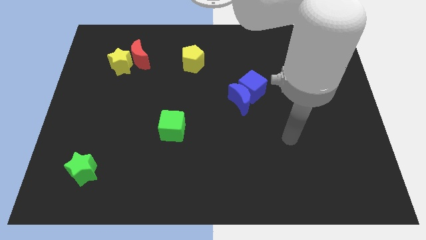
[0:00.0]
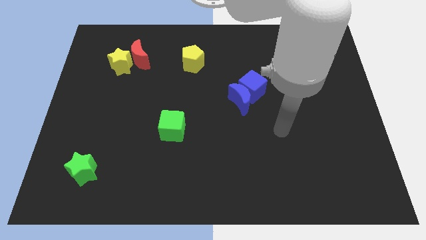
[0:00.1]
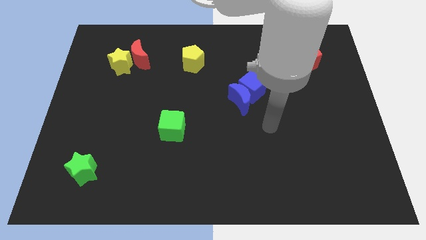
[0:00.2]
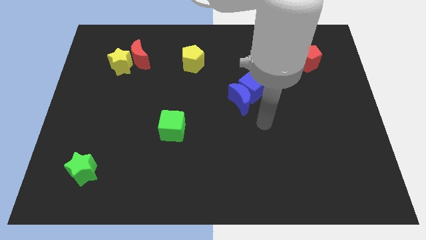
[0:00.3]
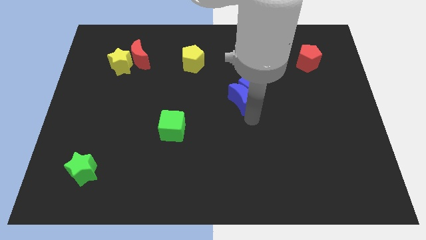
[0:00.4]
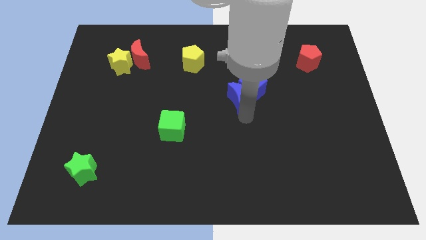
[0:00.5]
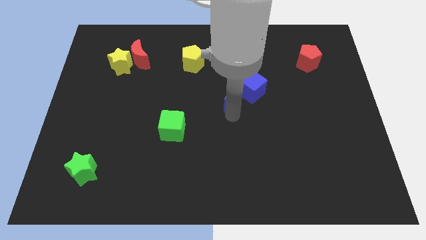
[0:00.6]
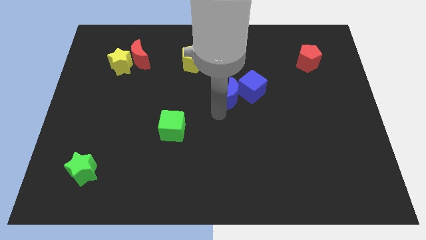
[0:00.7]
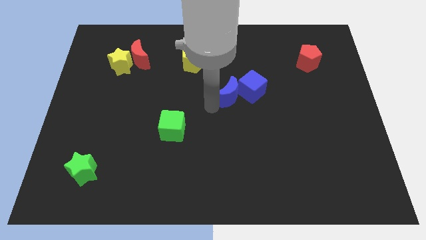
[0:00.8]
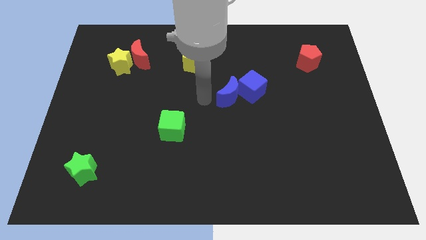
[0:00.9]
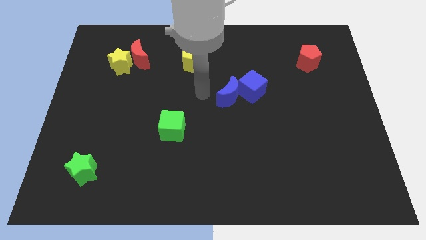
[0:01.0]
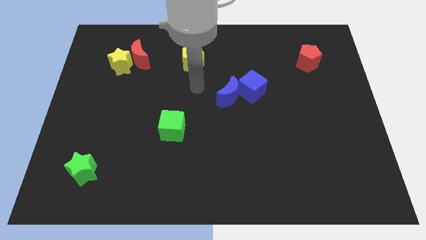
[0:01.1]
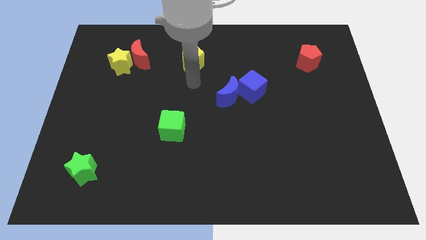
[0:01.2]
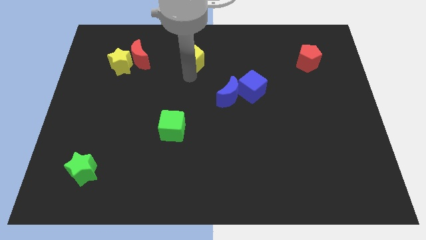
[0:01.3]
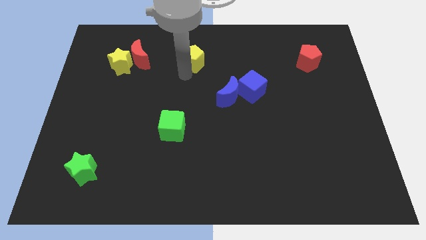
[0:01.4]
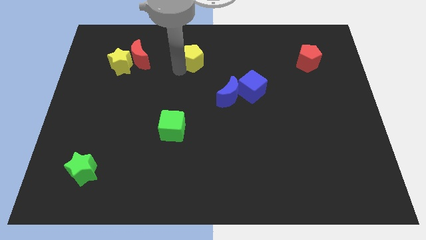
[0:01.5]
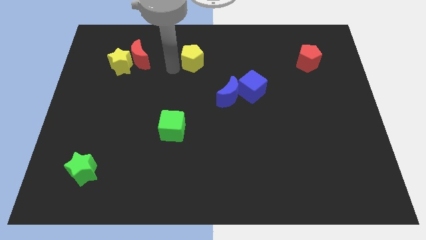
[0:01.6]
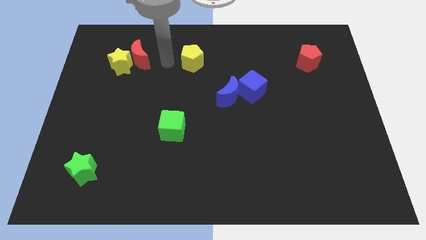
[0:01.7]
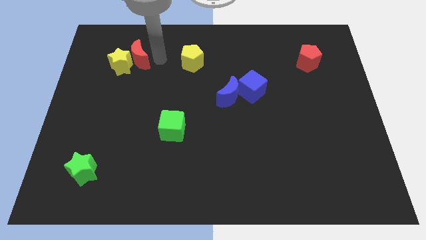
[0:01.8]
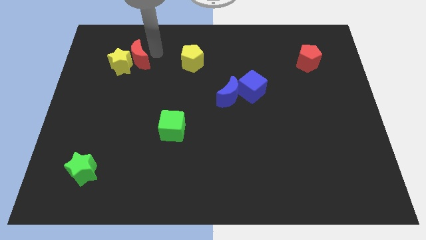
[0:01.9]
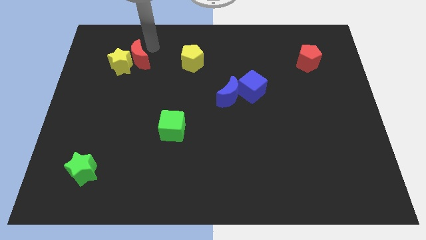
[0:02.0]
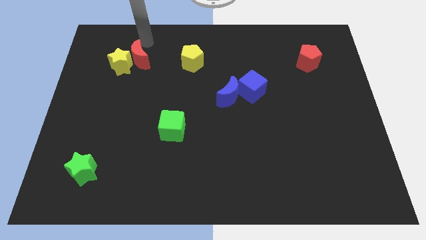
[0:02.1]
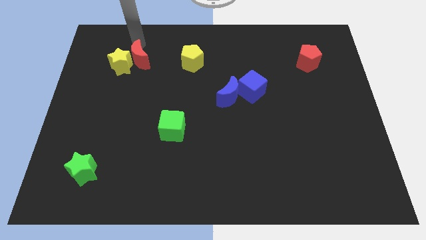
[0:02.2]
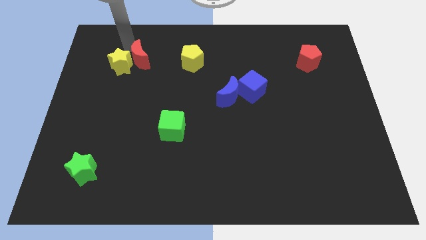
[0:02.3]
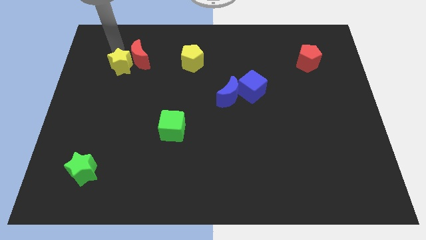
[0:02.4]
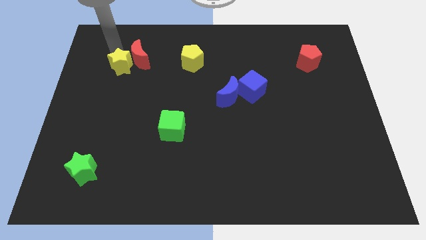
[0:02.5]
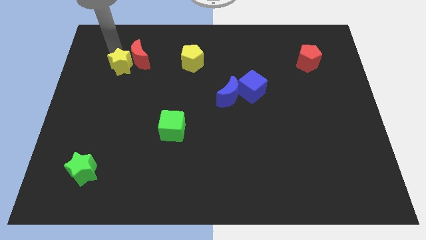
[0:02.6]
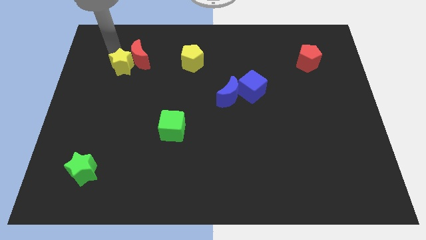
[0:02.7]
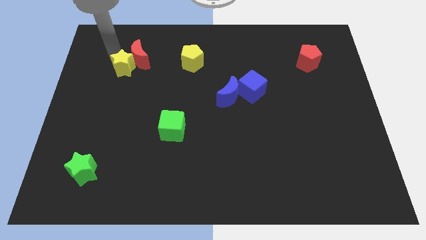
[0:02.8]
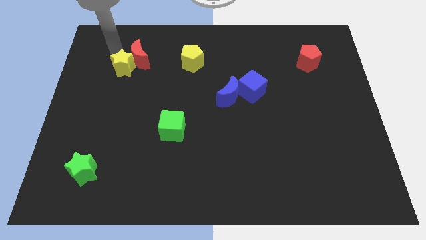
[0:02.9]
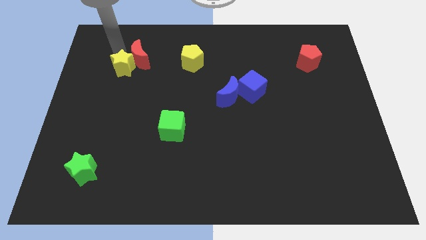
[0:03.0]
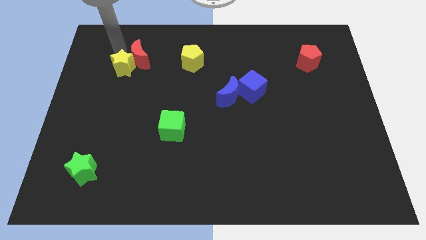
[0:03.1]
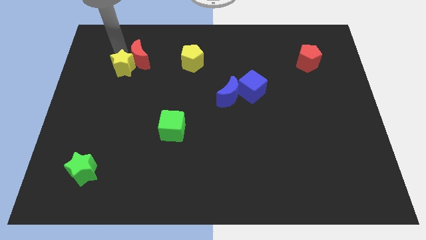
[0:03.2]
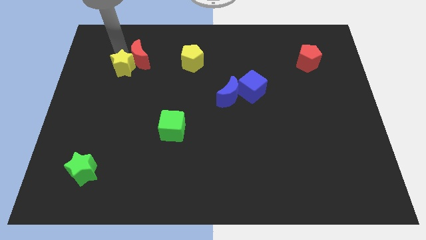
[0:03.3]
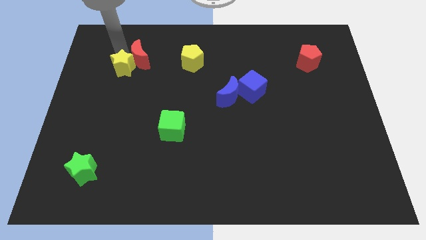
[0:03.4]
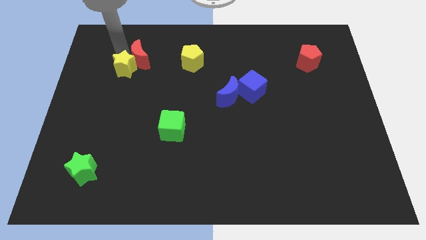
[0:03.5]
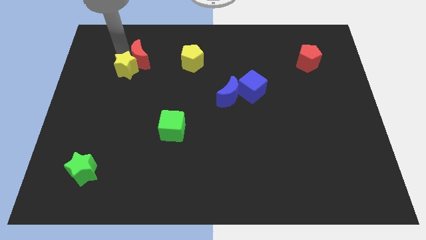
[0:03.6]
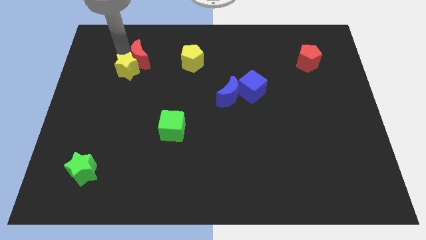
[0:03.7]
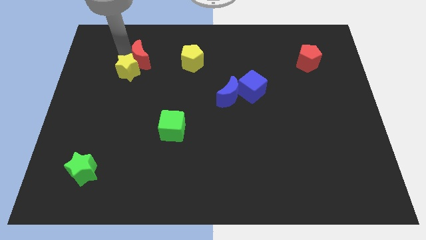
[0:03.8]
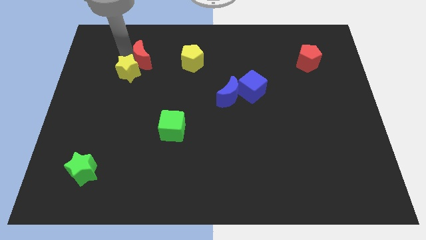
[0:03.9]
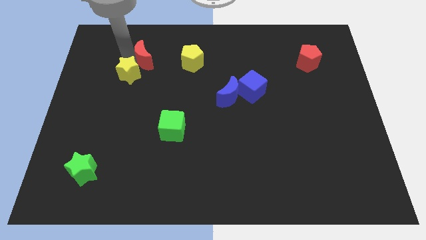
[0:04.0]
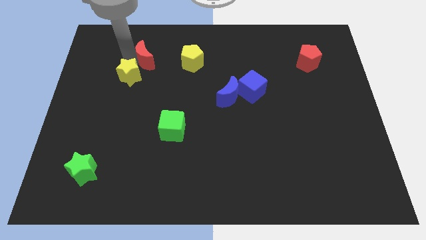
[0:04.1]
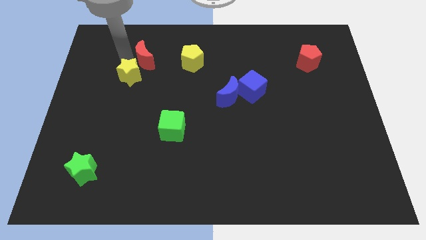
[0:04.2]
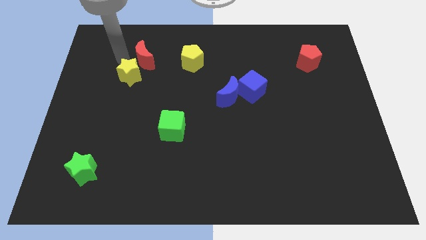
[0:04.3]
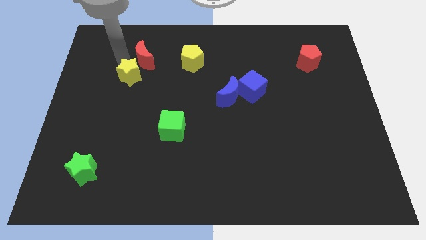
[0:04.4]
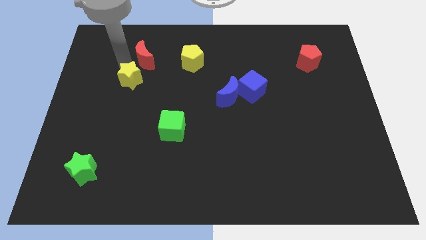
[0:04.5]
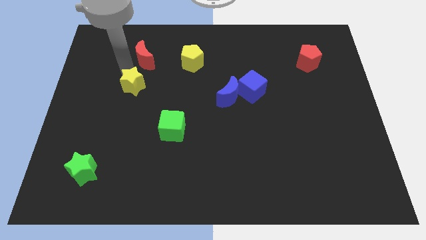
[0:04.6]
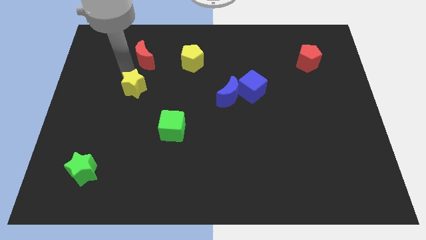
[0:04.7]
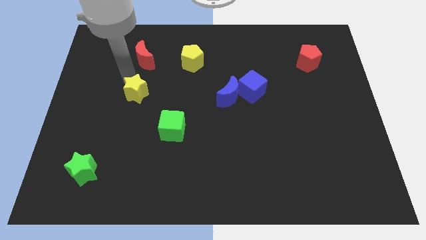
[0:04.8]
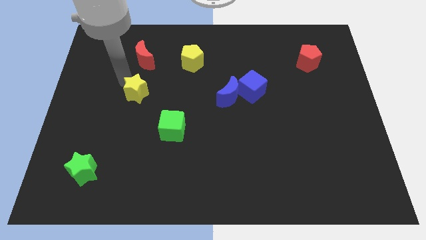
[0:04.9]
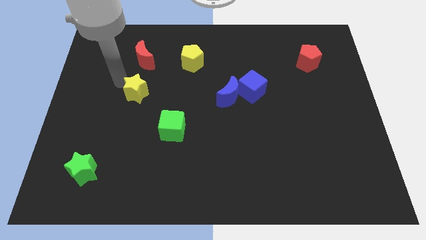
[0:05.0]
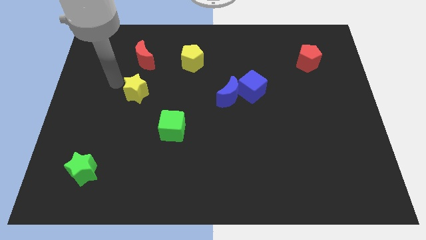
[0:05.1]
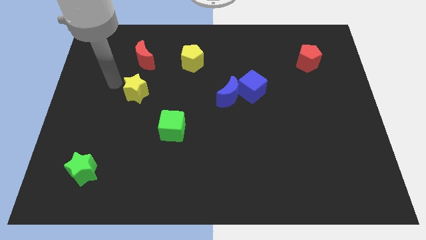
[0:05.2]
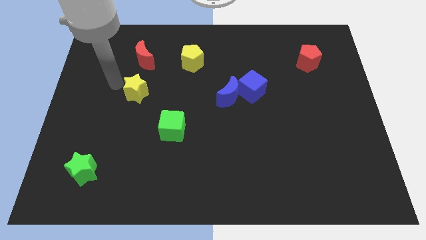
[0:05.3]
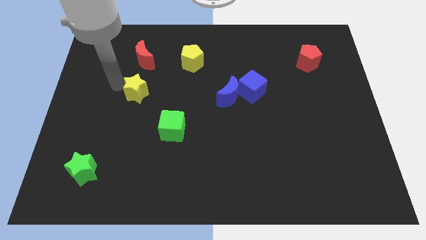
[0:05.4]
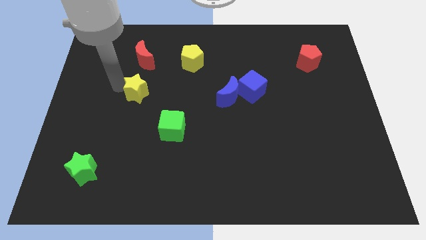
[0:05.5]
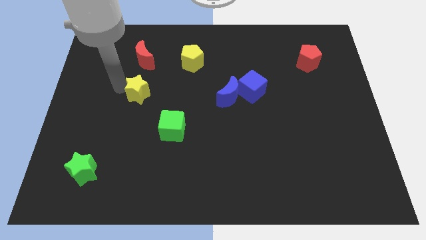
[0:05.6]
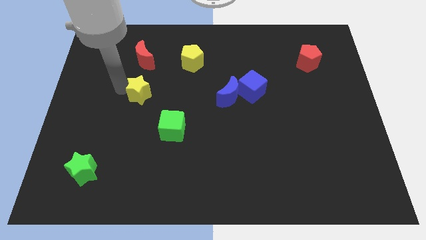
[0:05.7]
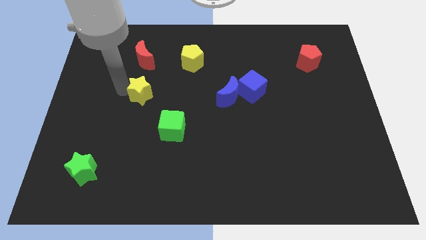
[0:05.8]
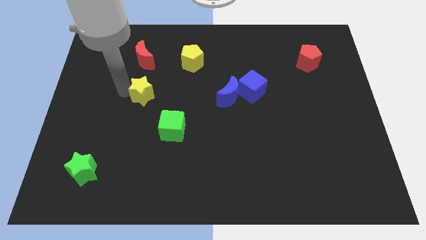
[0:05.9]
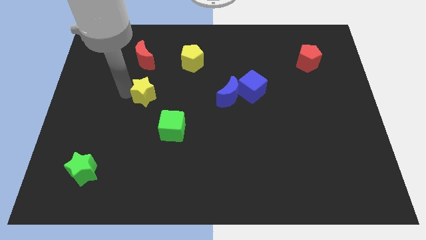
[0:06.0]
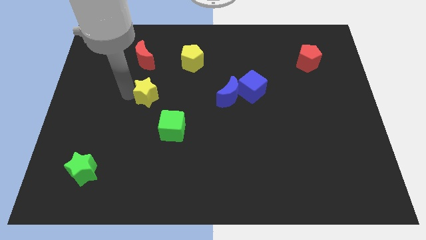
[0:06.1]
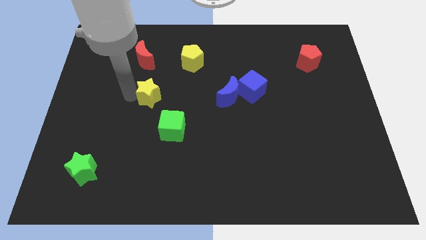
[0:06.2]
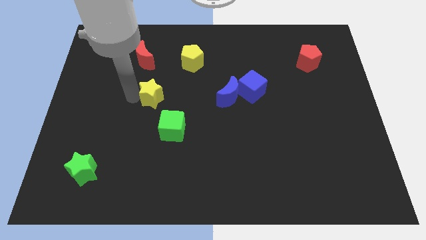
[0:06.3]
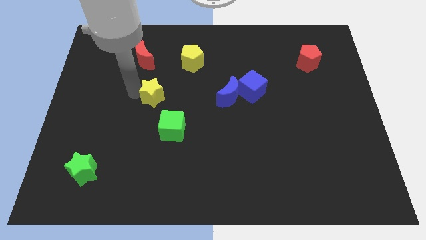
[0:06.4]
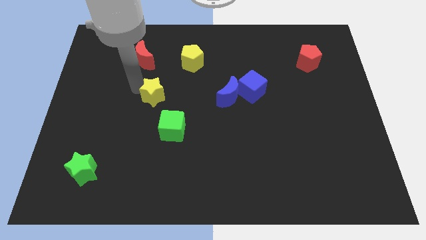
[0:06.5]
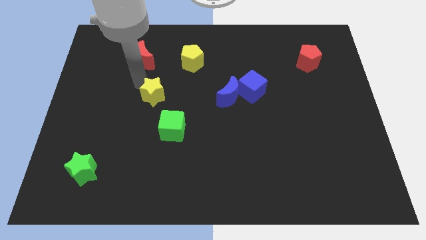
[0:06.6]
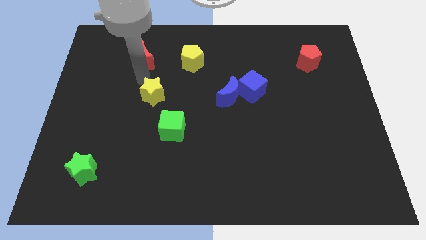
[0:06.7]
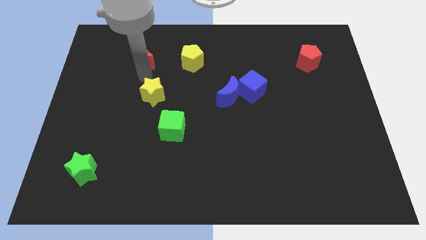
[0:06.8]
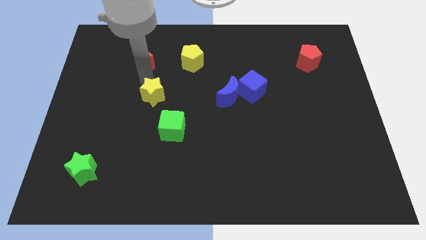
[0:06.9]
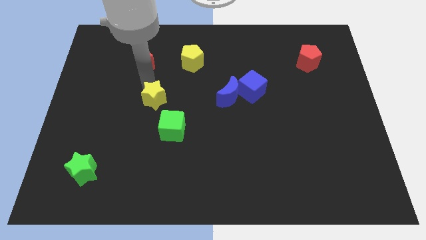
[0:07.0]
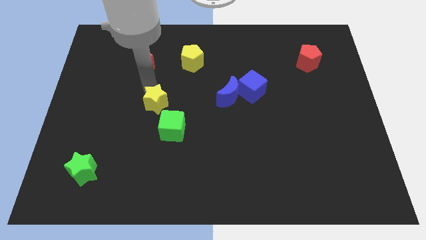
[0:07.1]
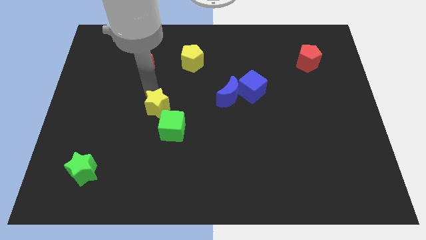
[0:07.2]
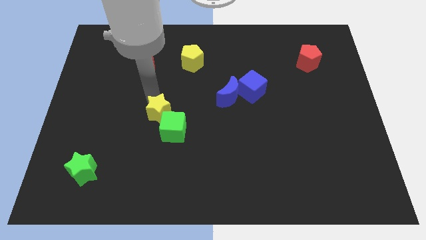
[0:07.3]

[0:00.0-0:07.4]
move the yellow star to the green cube
